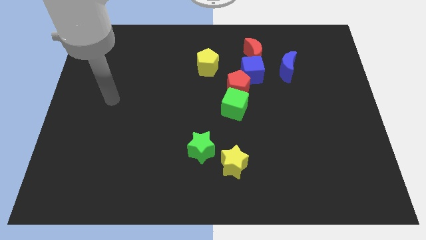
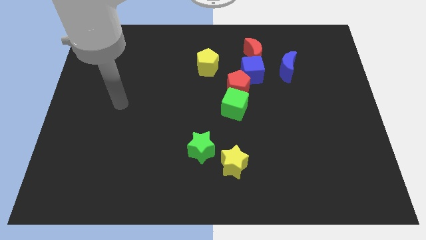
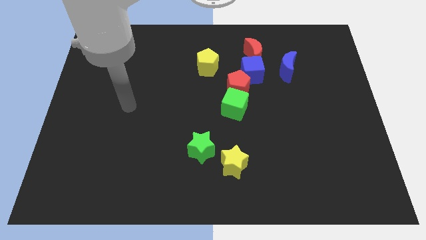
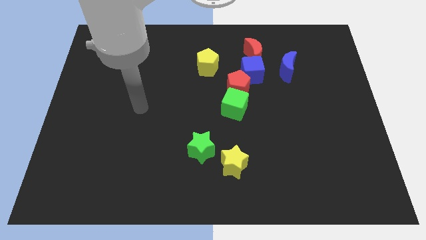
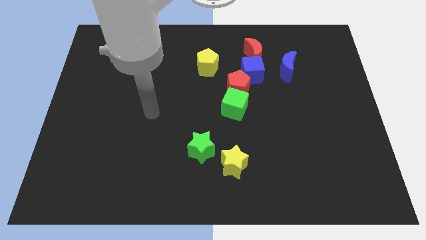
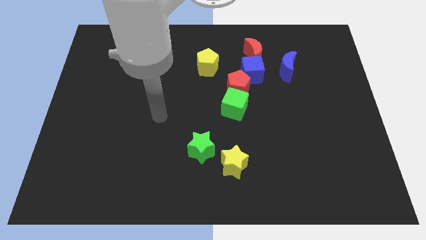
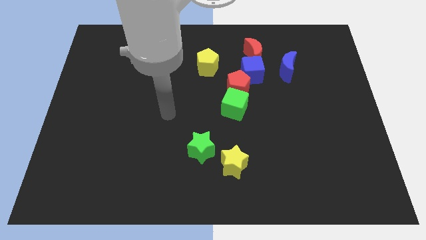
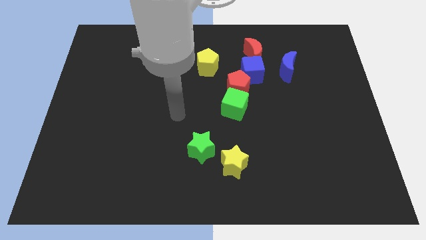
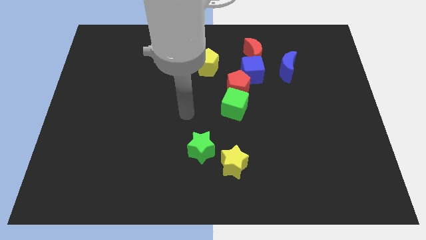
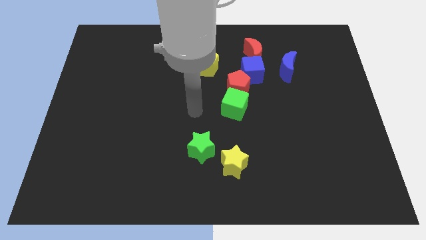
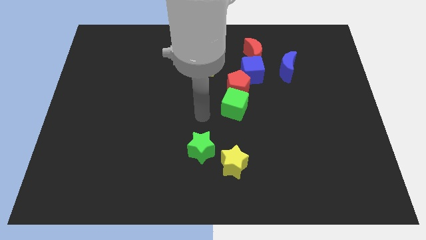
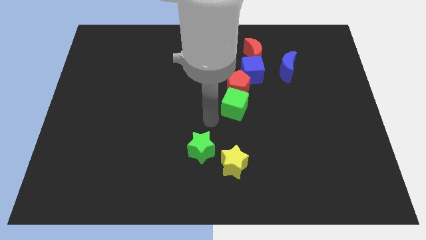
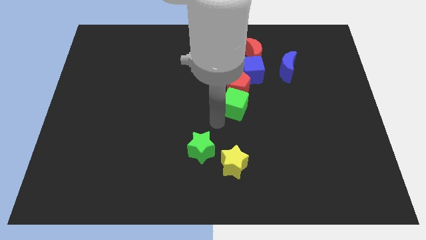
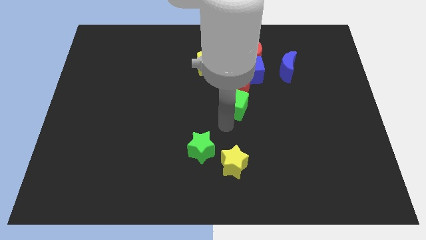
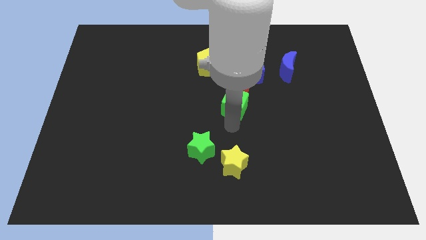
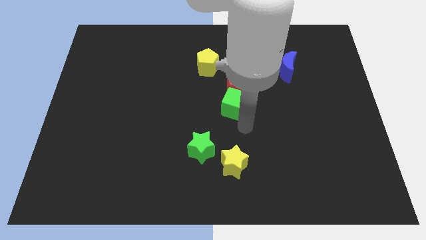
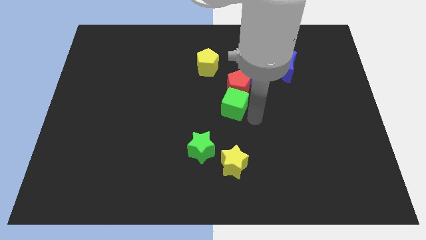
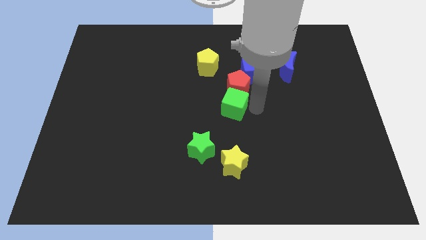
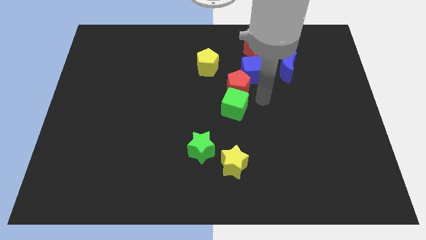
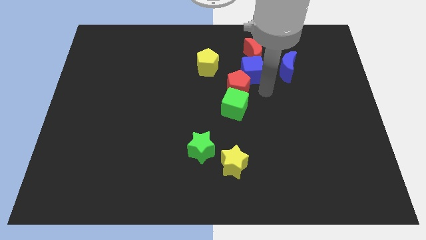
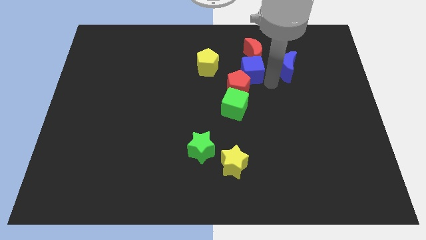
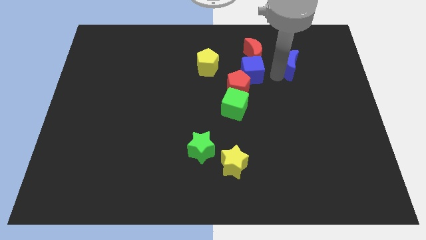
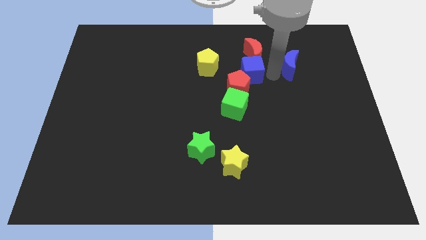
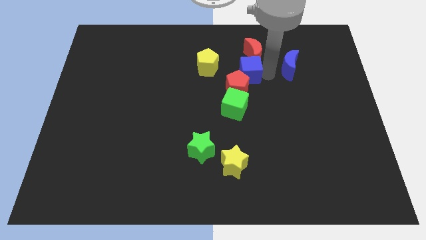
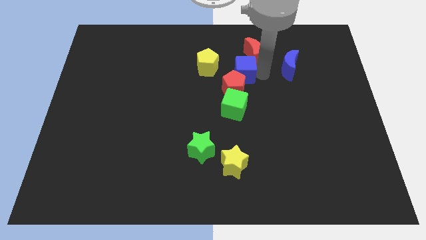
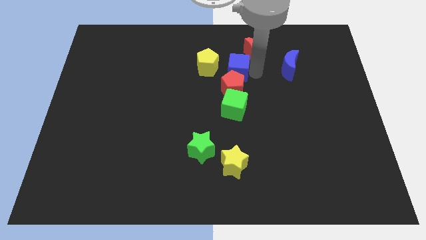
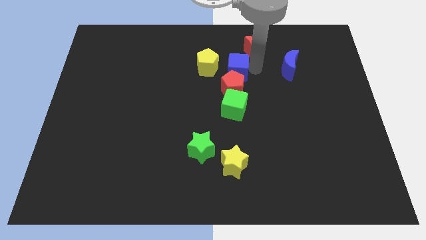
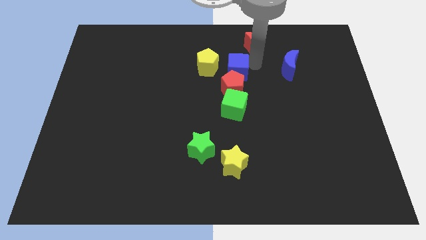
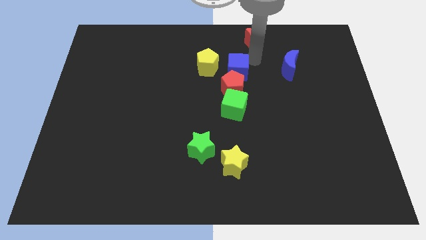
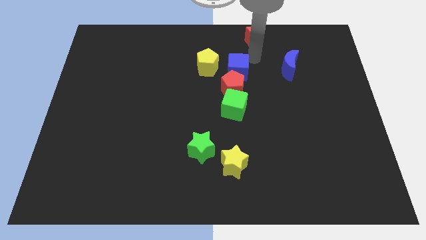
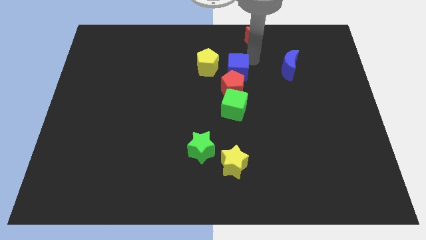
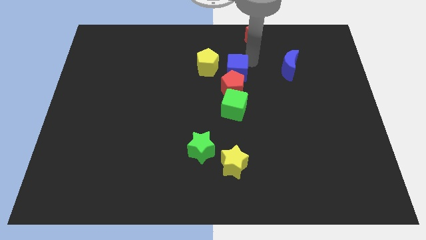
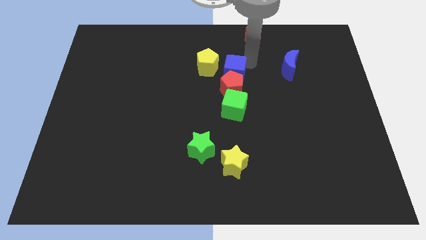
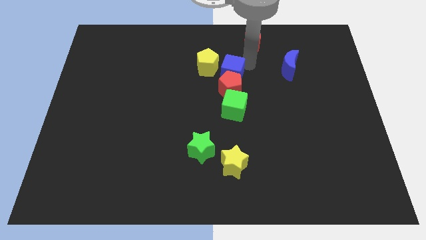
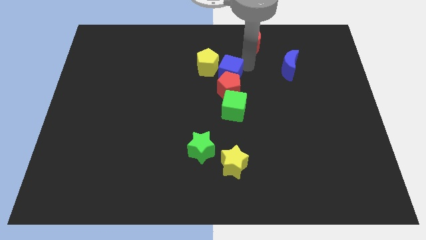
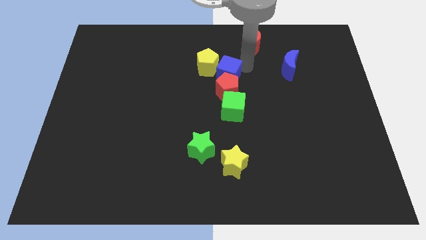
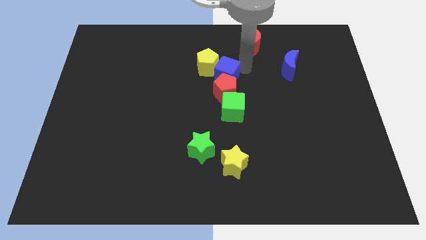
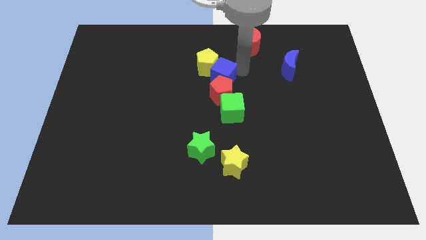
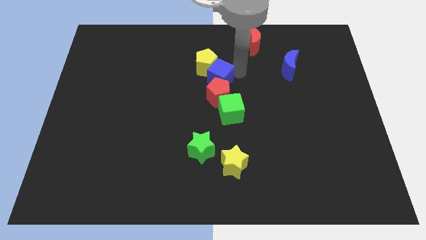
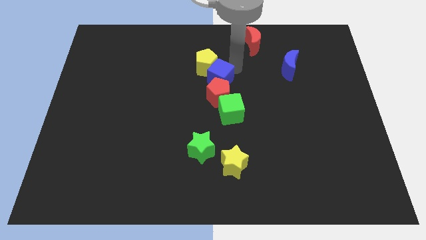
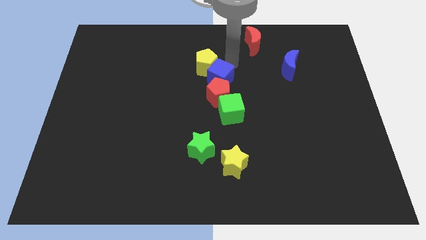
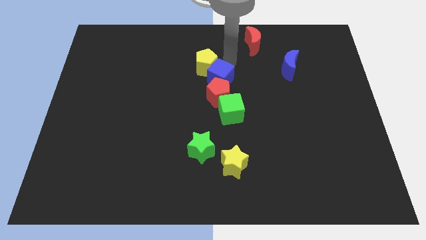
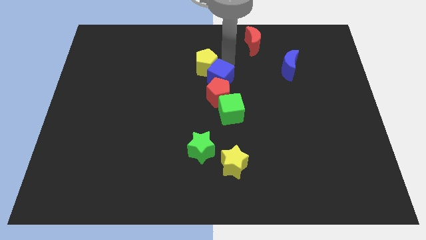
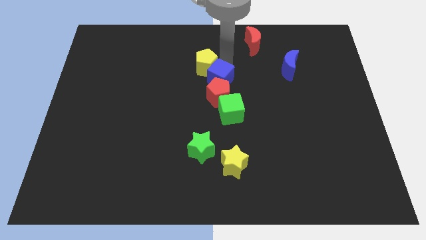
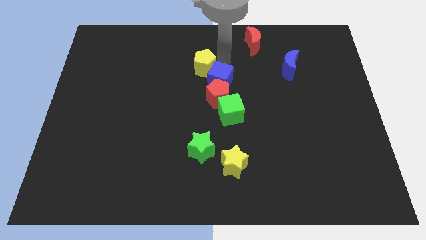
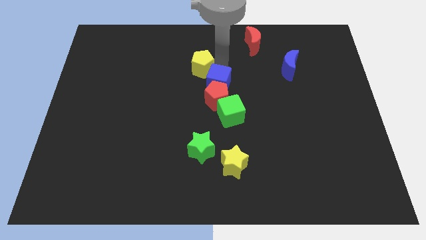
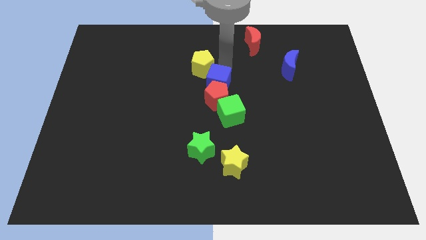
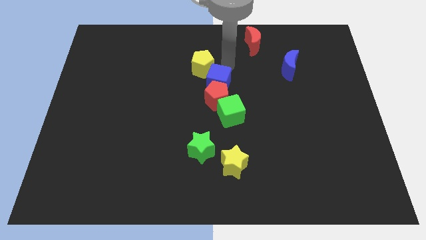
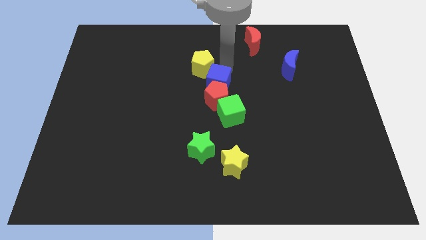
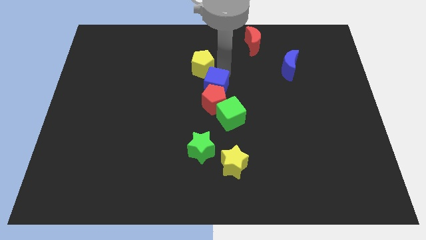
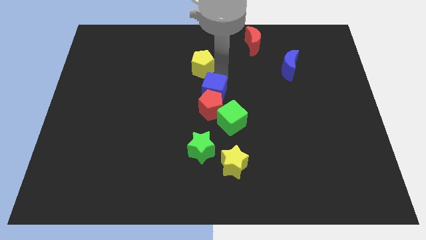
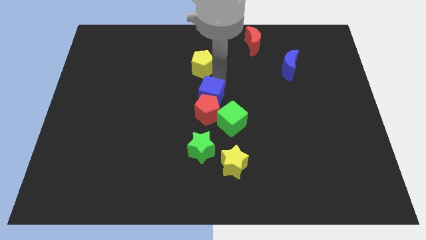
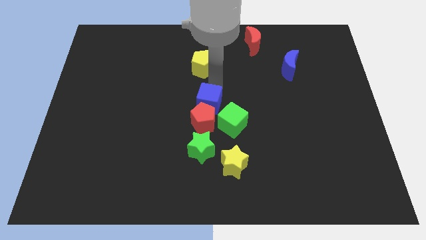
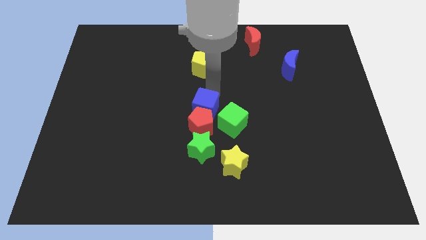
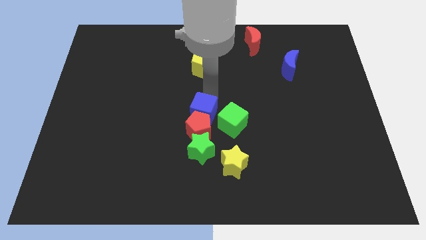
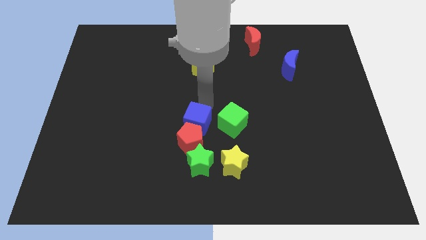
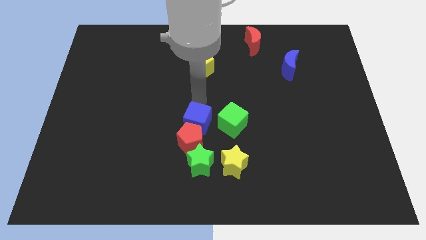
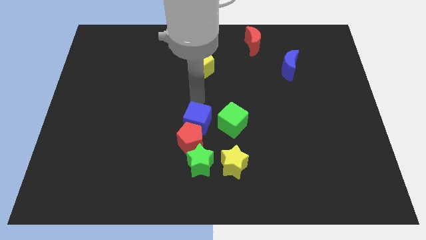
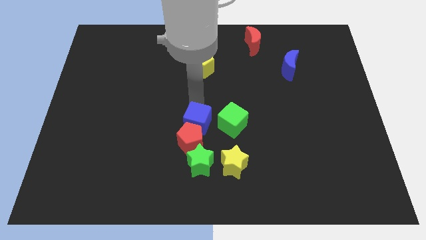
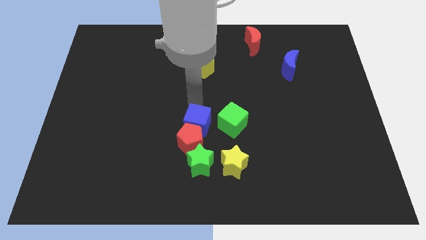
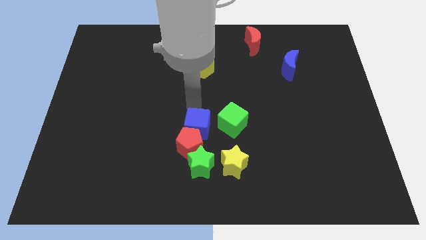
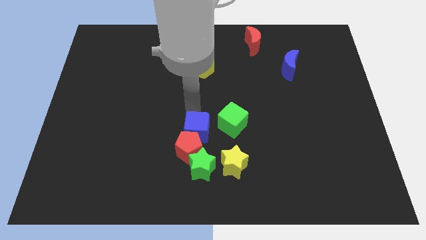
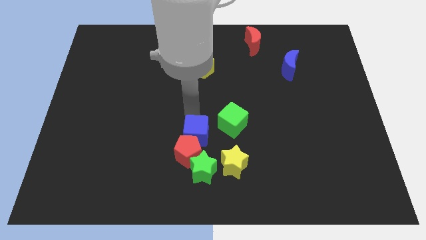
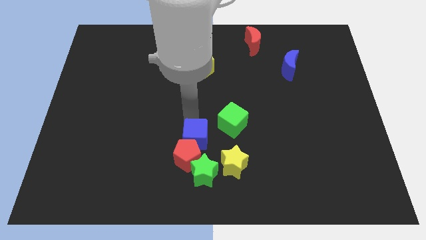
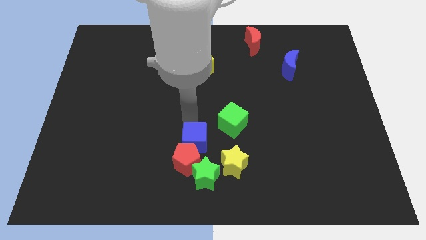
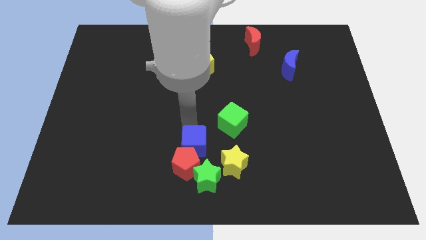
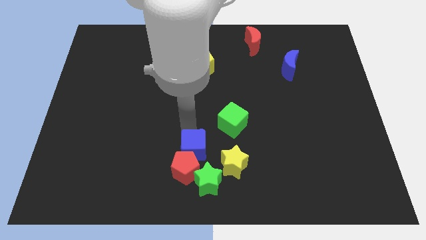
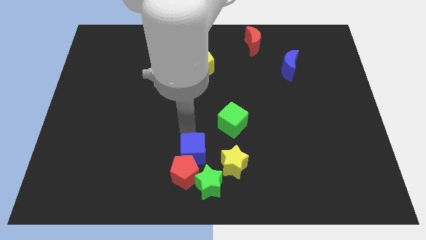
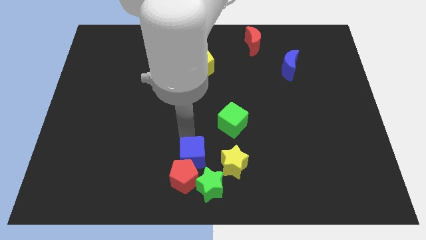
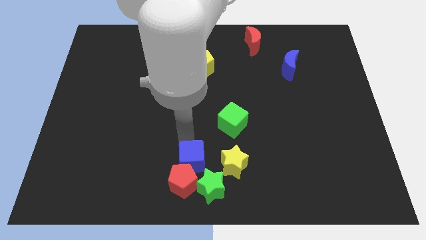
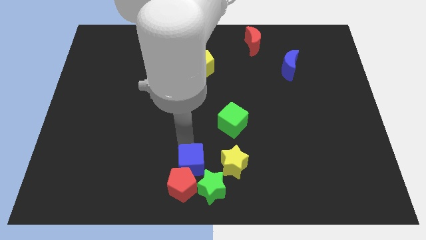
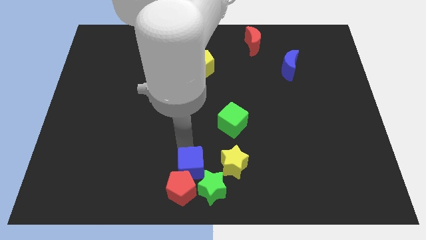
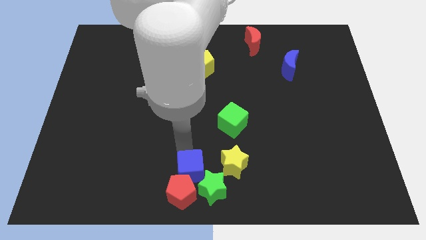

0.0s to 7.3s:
slide the blue cube towards the green star
